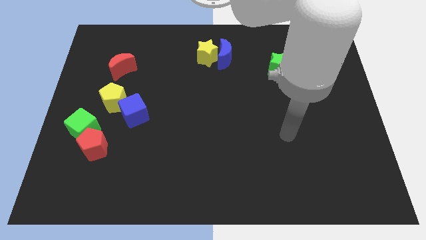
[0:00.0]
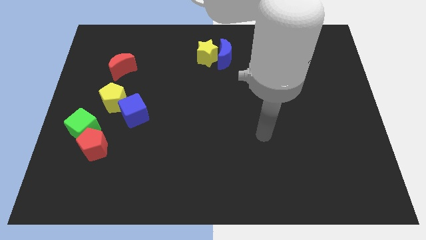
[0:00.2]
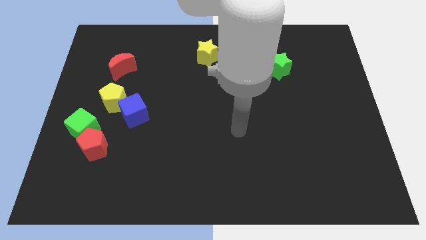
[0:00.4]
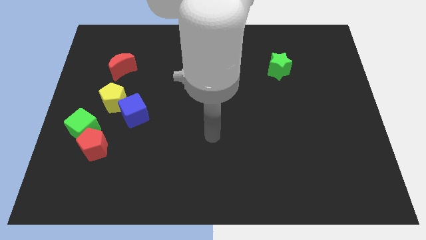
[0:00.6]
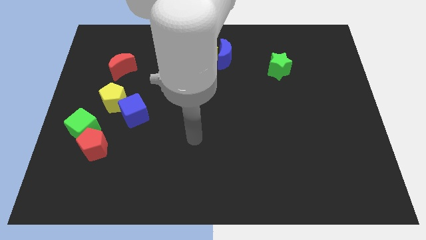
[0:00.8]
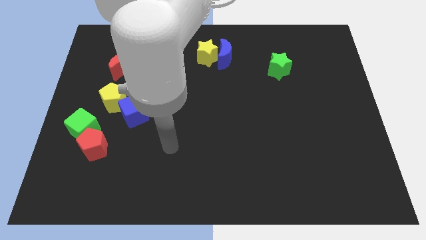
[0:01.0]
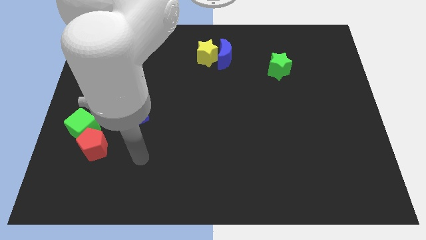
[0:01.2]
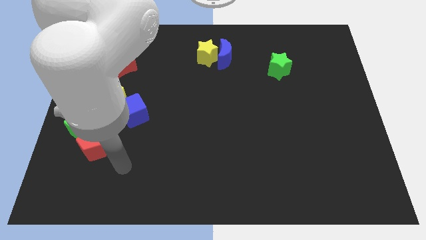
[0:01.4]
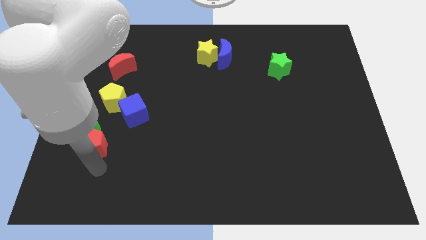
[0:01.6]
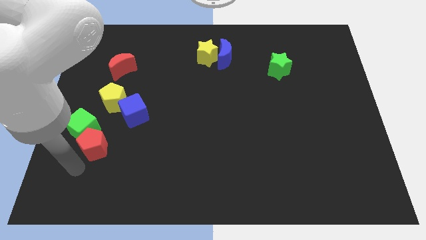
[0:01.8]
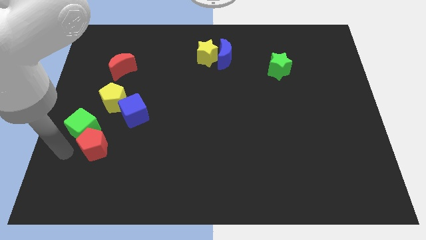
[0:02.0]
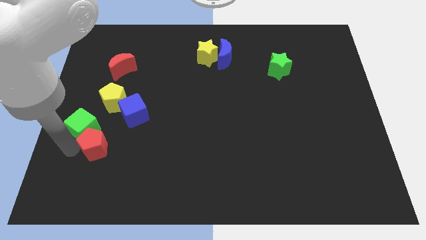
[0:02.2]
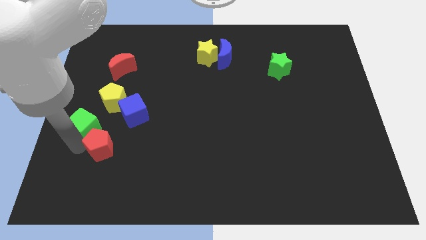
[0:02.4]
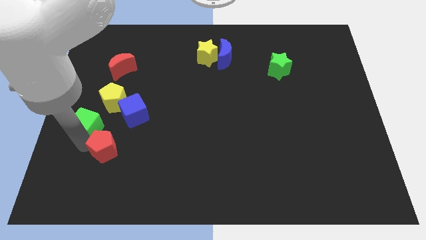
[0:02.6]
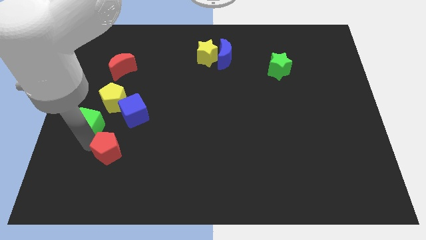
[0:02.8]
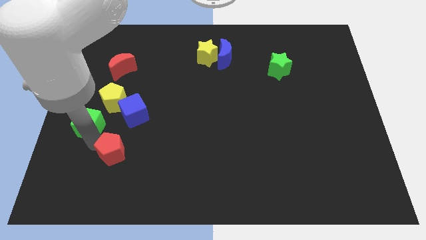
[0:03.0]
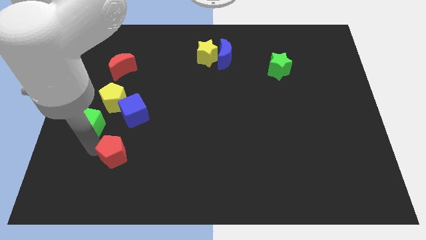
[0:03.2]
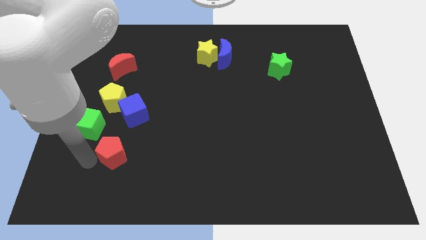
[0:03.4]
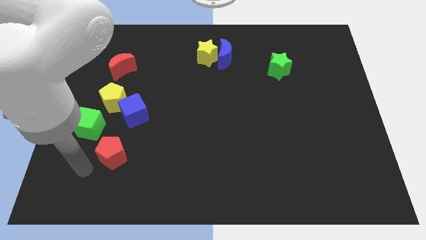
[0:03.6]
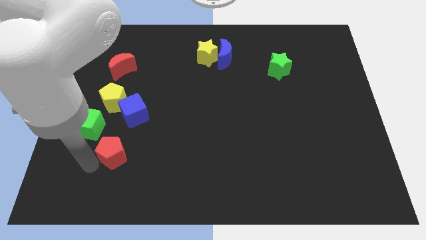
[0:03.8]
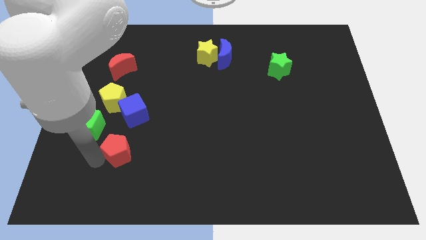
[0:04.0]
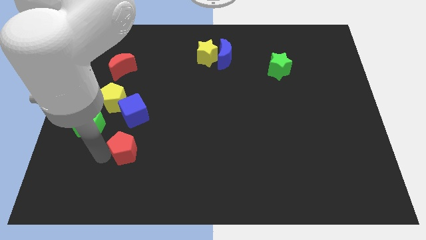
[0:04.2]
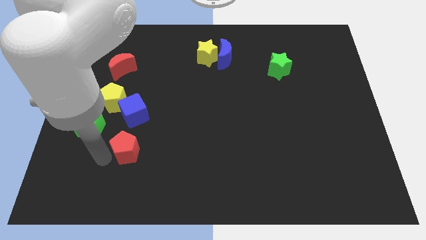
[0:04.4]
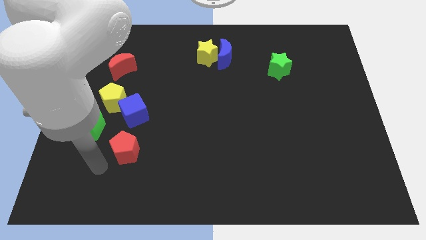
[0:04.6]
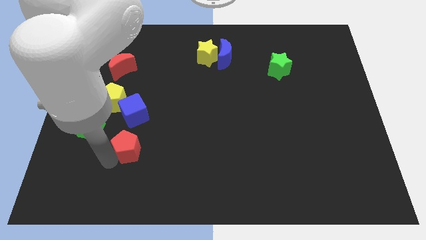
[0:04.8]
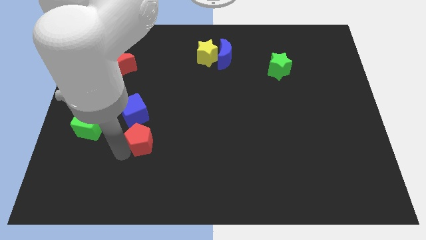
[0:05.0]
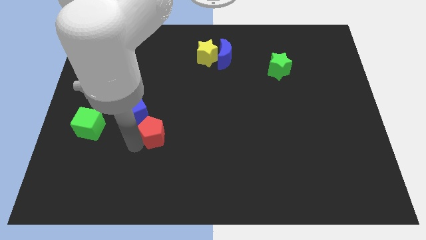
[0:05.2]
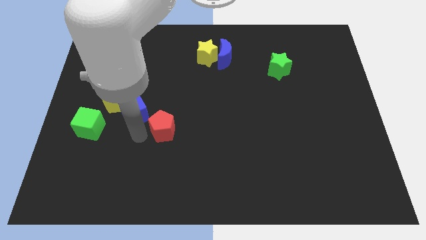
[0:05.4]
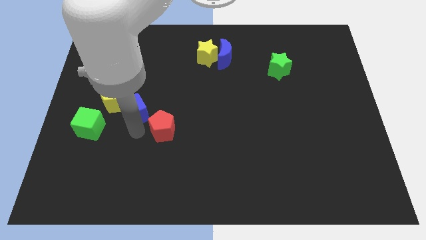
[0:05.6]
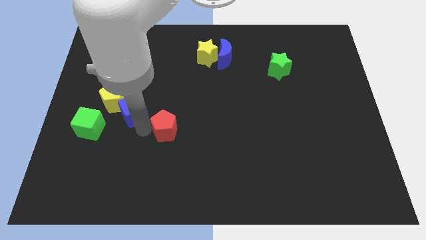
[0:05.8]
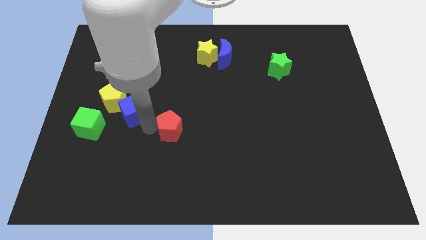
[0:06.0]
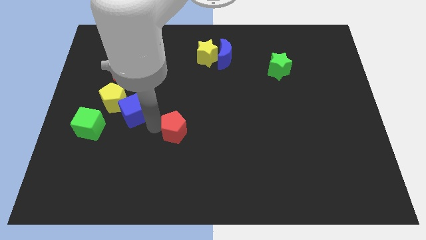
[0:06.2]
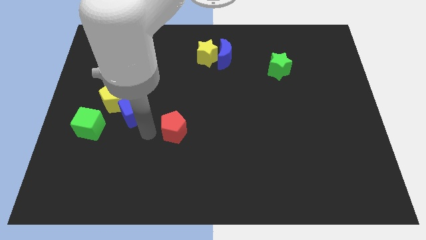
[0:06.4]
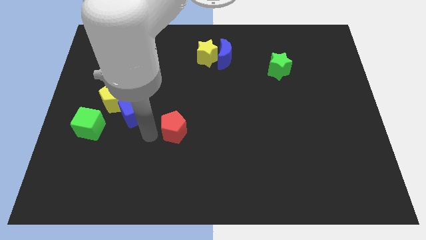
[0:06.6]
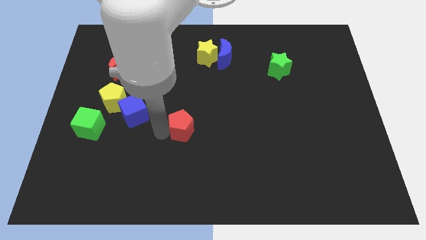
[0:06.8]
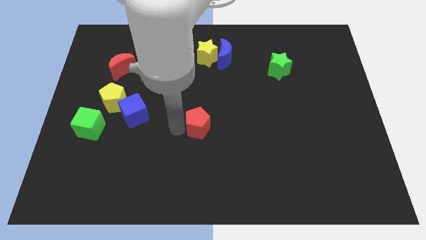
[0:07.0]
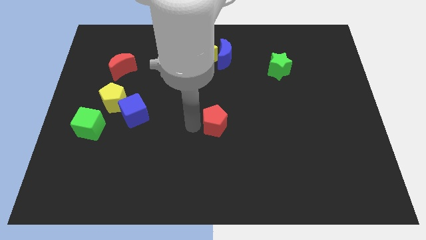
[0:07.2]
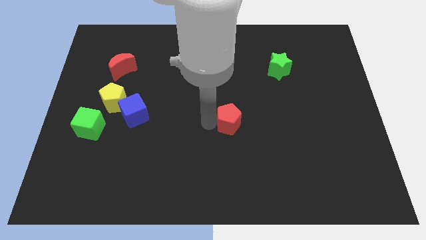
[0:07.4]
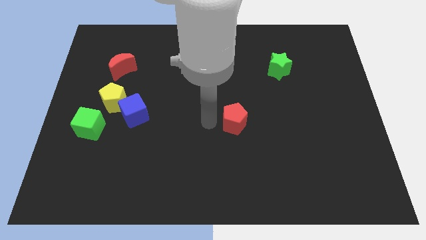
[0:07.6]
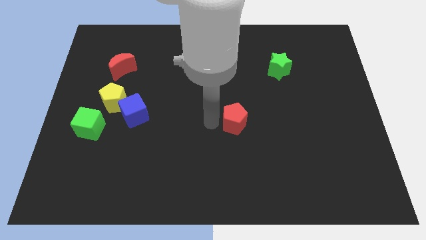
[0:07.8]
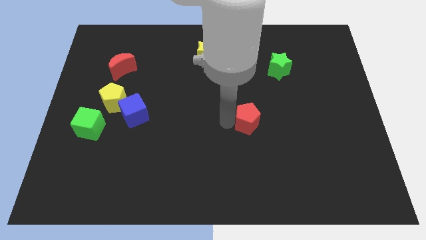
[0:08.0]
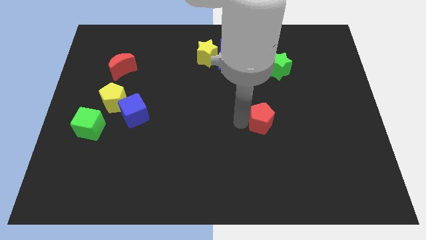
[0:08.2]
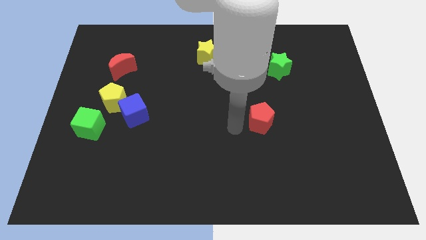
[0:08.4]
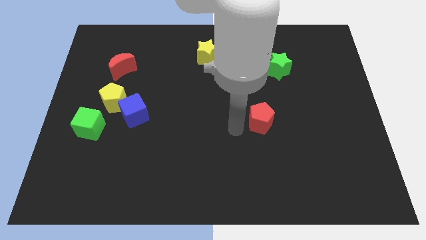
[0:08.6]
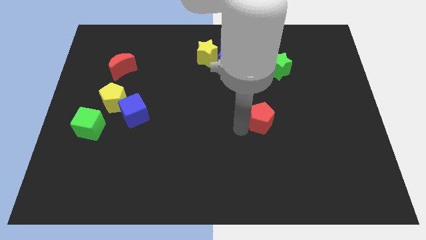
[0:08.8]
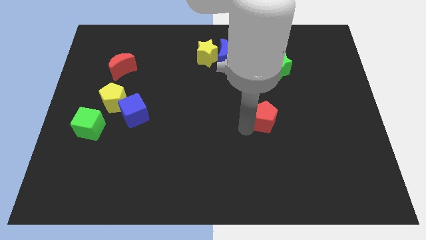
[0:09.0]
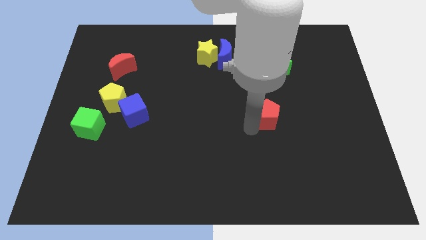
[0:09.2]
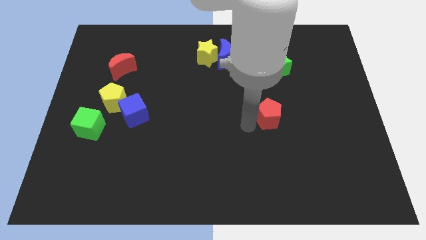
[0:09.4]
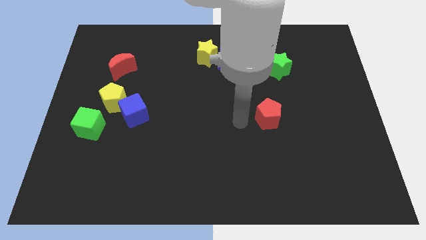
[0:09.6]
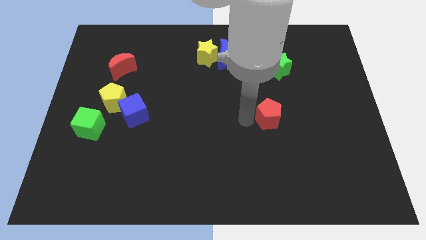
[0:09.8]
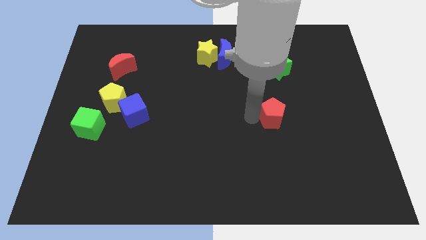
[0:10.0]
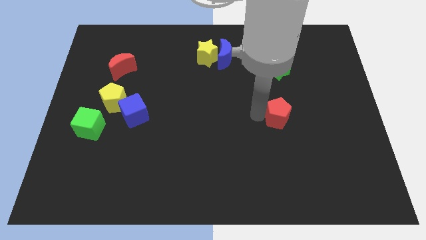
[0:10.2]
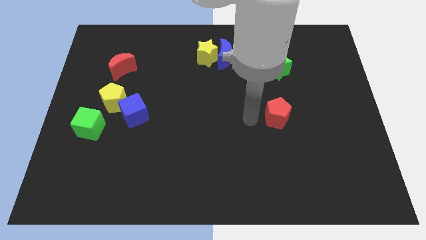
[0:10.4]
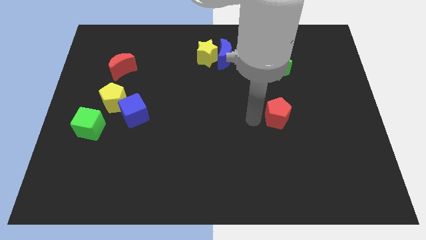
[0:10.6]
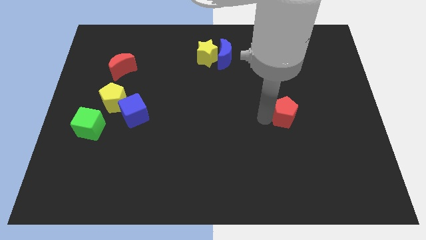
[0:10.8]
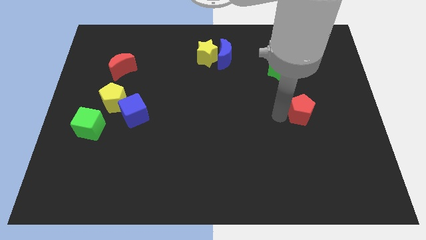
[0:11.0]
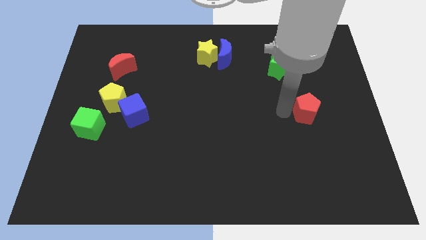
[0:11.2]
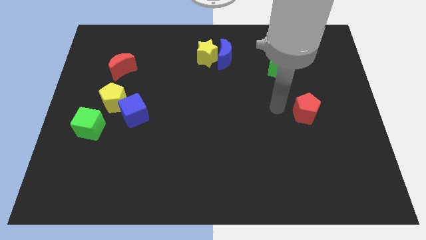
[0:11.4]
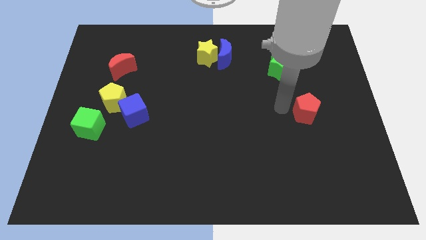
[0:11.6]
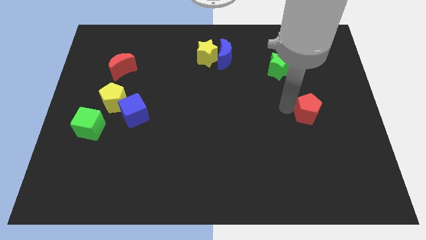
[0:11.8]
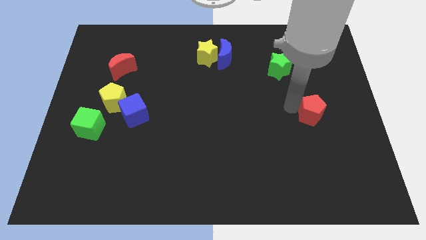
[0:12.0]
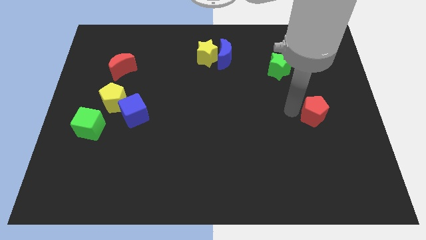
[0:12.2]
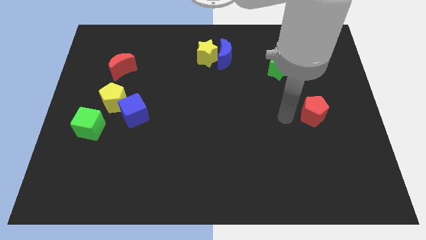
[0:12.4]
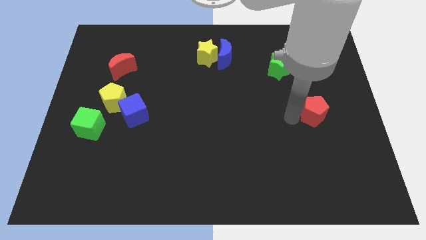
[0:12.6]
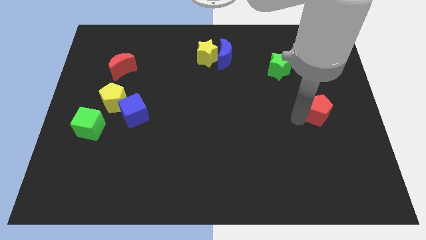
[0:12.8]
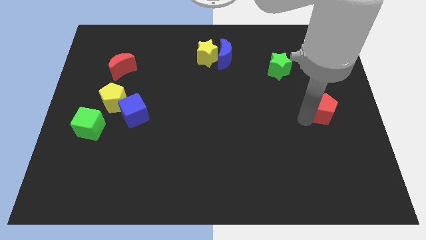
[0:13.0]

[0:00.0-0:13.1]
push the red pentagon to the right side of the board
